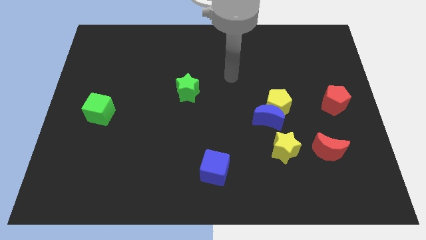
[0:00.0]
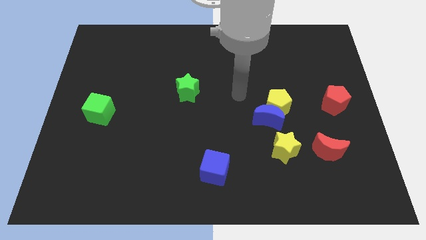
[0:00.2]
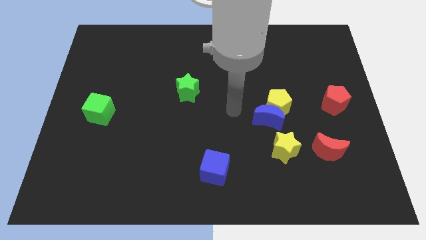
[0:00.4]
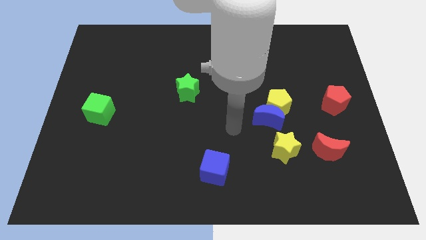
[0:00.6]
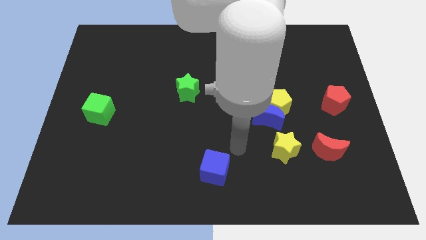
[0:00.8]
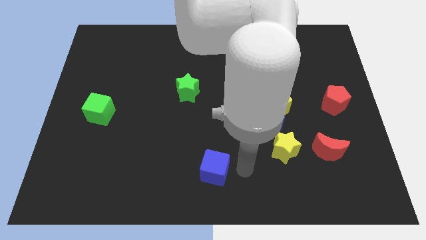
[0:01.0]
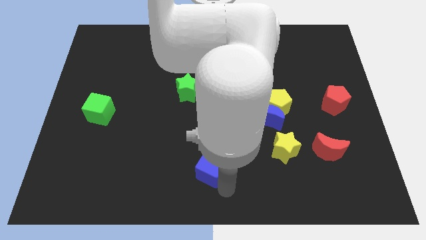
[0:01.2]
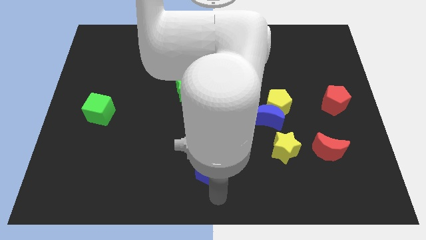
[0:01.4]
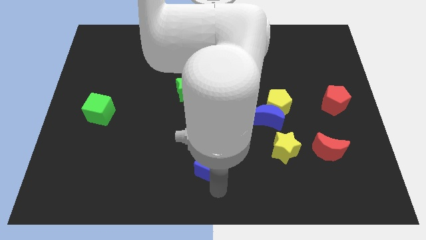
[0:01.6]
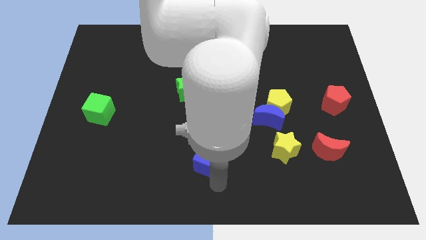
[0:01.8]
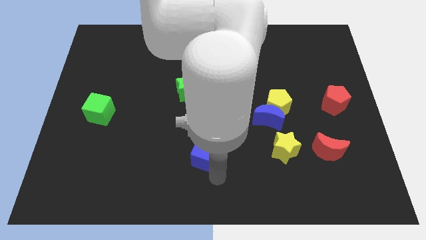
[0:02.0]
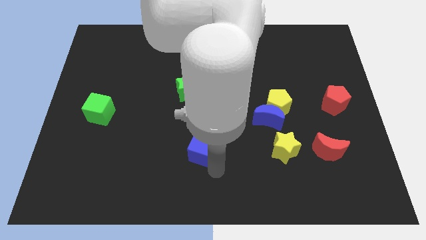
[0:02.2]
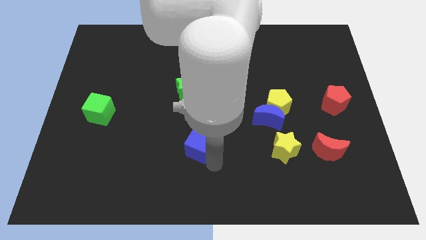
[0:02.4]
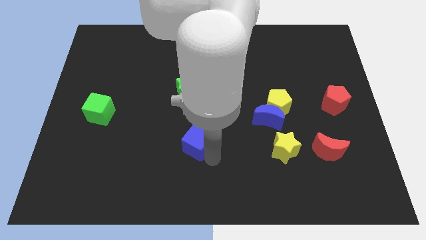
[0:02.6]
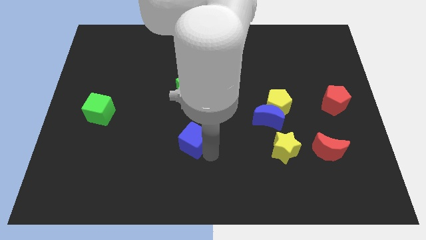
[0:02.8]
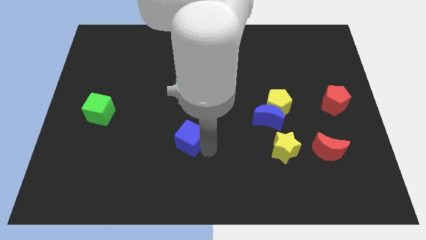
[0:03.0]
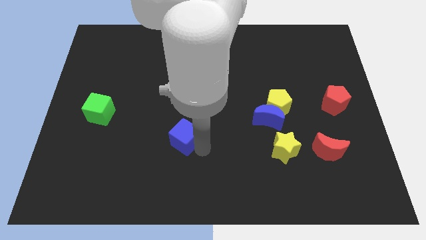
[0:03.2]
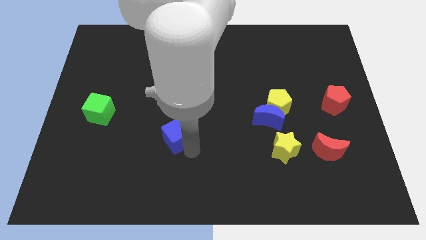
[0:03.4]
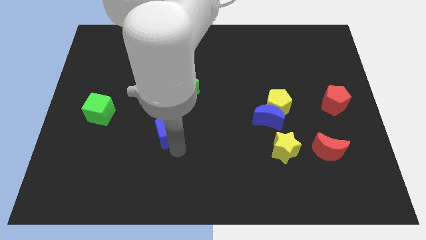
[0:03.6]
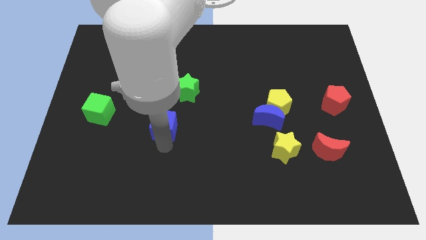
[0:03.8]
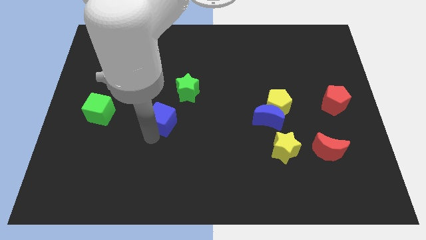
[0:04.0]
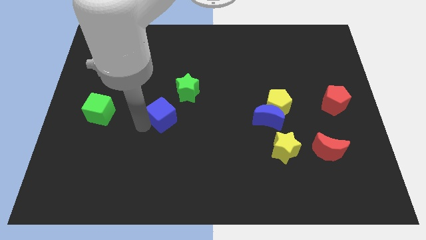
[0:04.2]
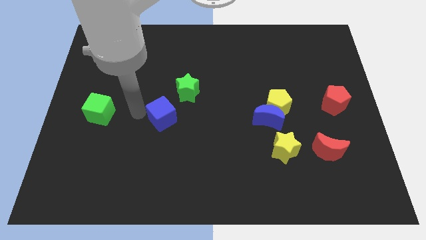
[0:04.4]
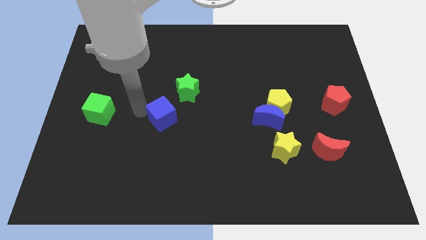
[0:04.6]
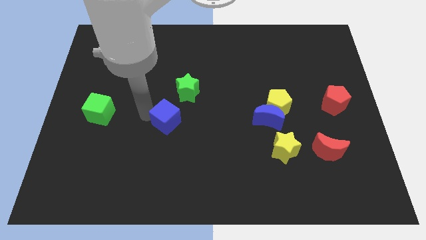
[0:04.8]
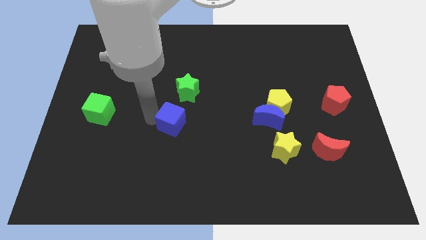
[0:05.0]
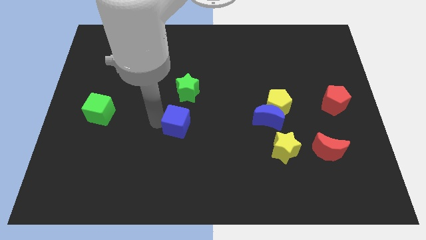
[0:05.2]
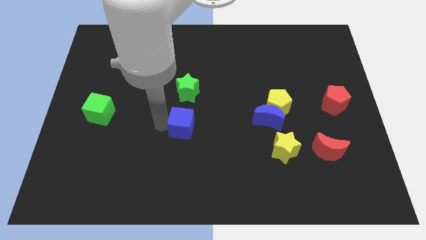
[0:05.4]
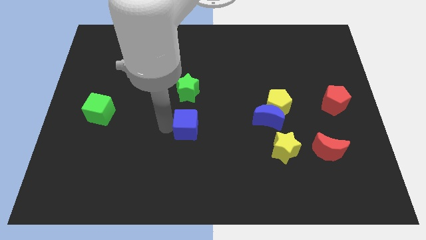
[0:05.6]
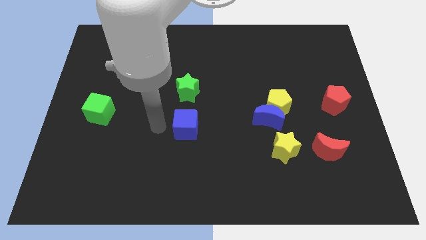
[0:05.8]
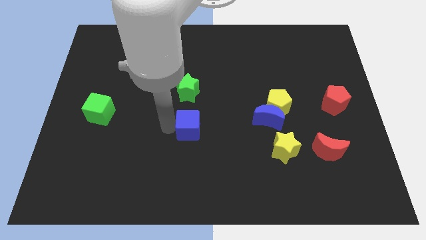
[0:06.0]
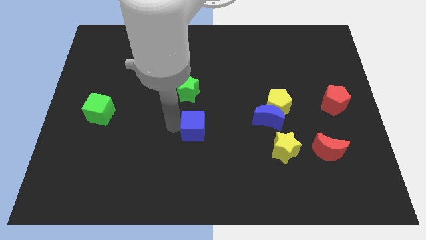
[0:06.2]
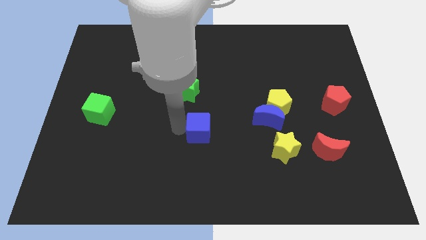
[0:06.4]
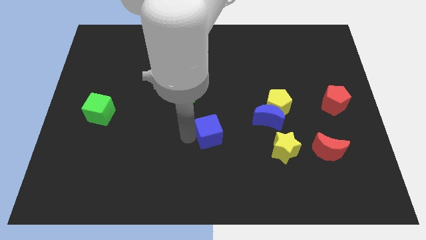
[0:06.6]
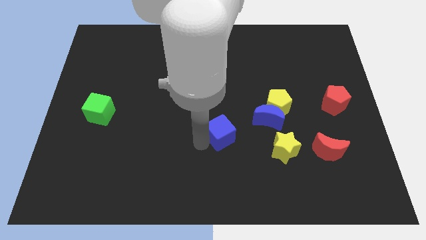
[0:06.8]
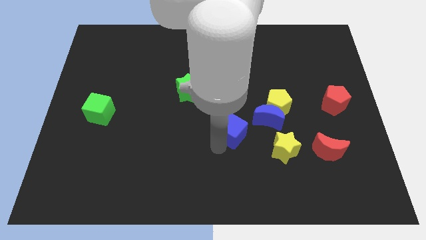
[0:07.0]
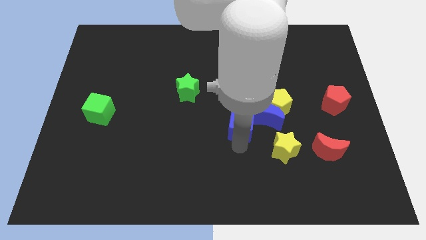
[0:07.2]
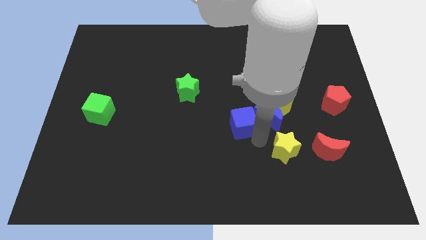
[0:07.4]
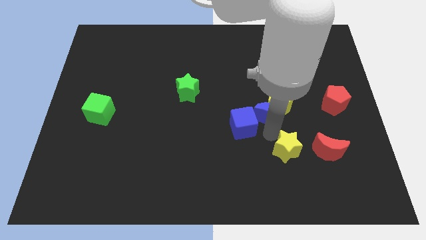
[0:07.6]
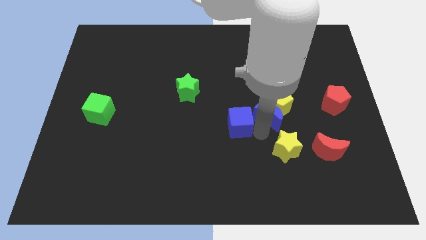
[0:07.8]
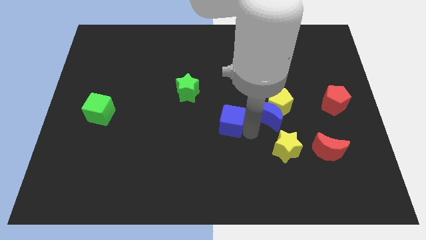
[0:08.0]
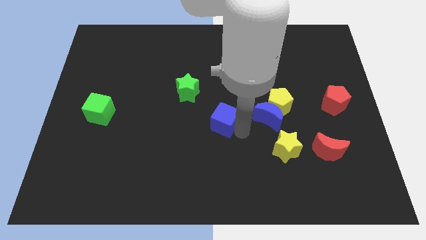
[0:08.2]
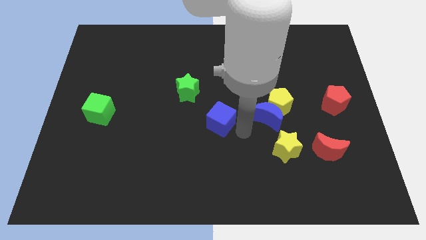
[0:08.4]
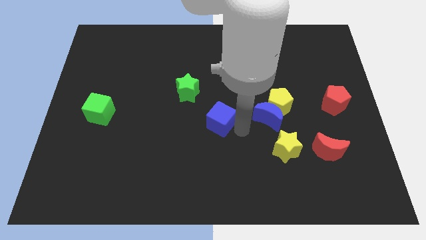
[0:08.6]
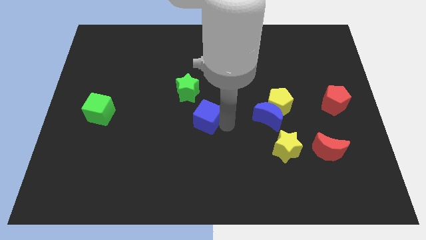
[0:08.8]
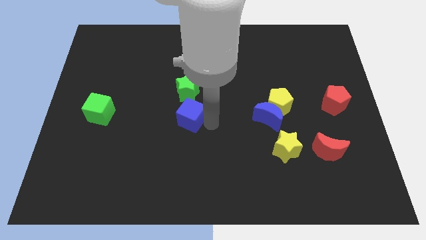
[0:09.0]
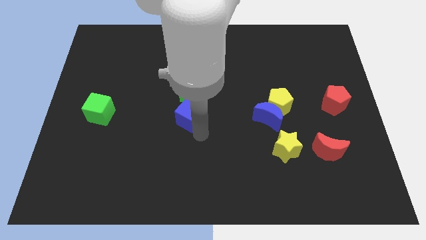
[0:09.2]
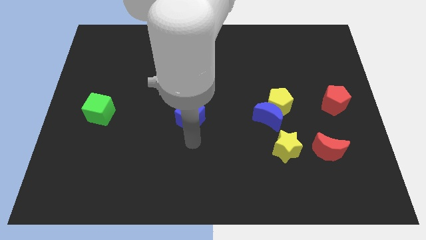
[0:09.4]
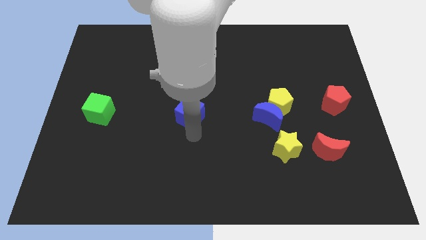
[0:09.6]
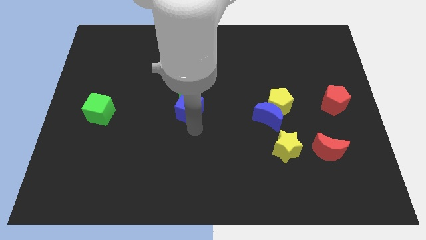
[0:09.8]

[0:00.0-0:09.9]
push the blue cube towards the green star

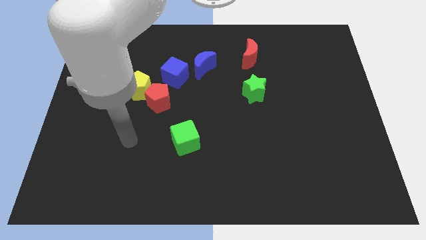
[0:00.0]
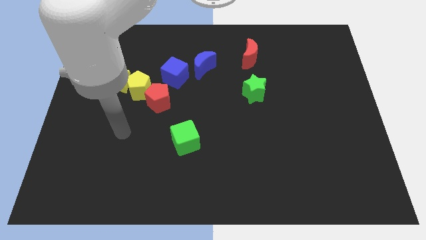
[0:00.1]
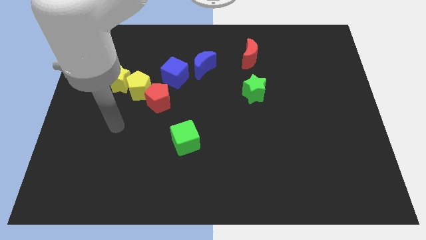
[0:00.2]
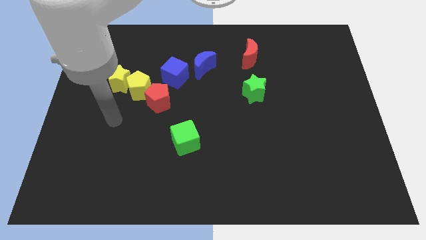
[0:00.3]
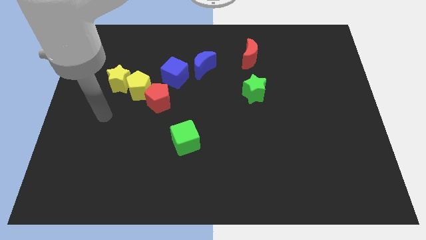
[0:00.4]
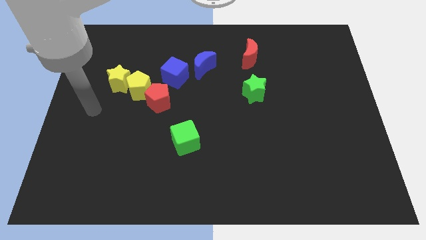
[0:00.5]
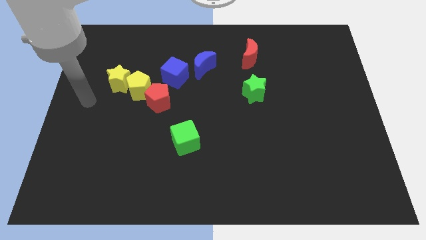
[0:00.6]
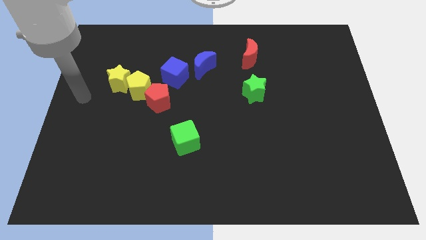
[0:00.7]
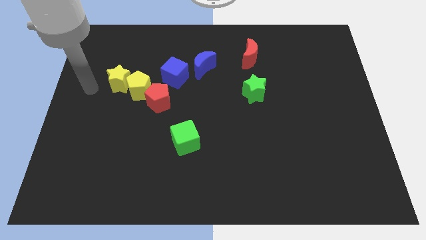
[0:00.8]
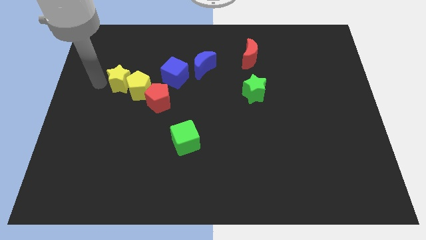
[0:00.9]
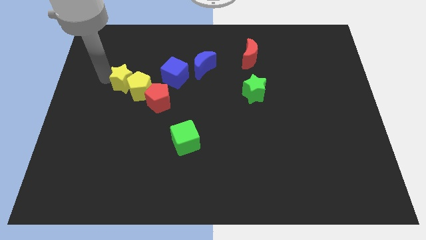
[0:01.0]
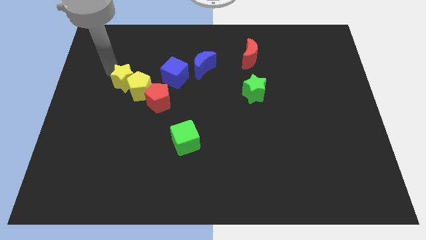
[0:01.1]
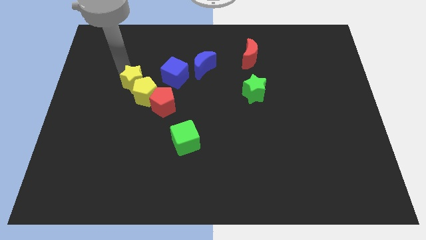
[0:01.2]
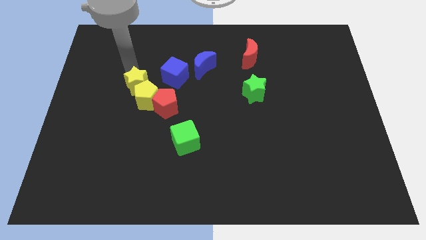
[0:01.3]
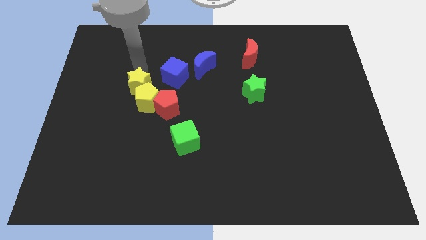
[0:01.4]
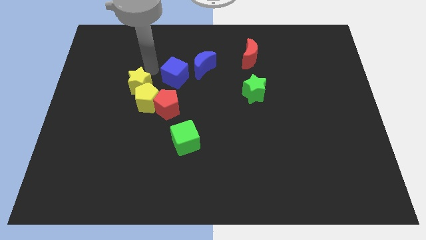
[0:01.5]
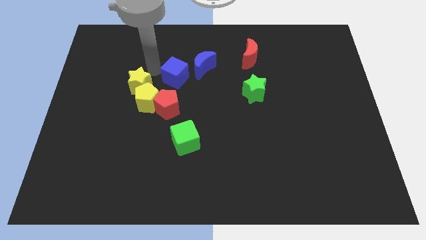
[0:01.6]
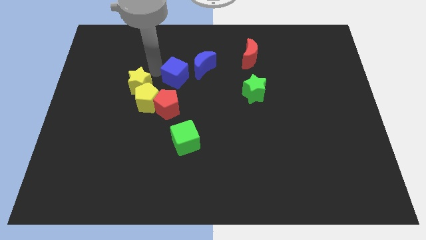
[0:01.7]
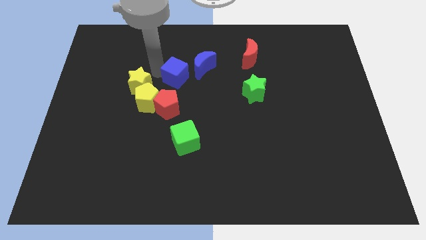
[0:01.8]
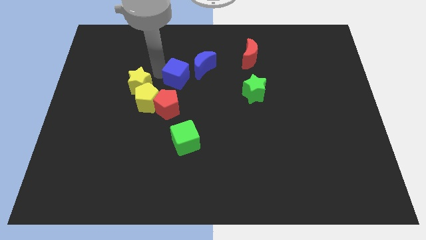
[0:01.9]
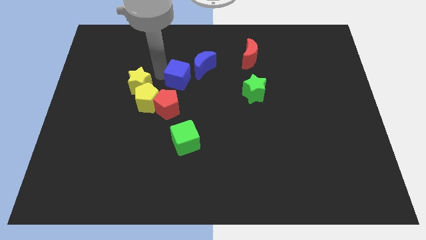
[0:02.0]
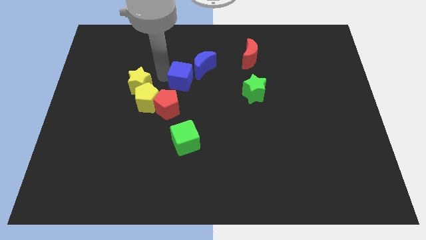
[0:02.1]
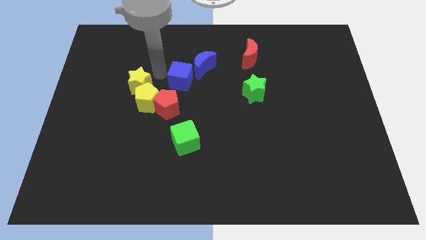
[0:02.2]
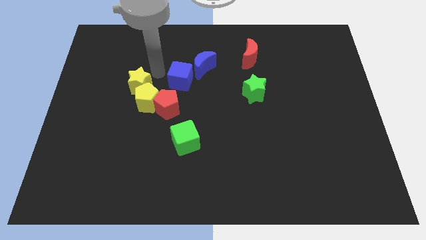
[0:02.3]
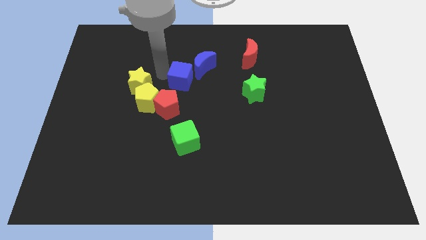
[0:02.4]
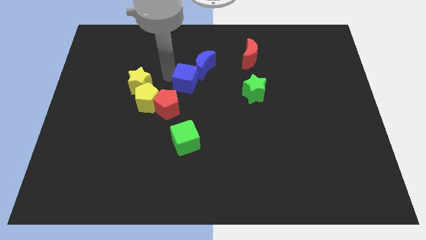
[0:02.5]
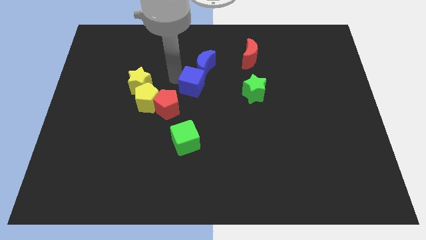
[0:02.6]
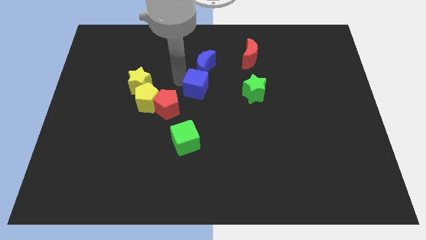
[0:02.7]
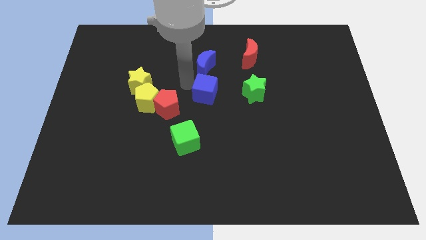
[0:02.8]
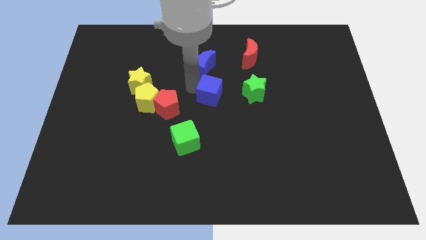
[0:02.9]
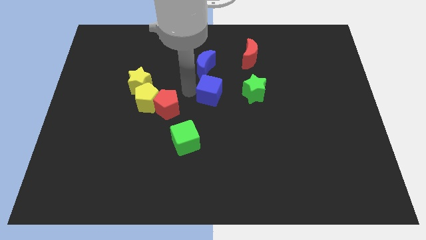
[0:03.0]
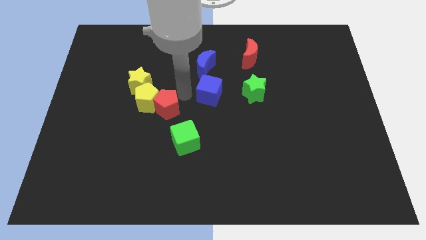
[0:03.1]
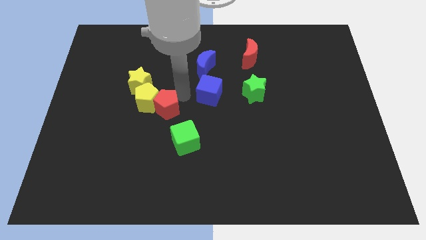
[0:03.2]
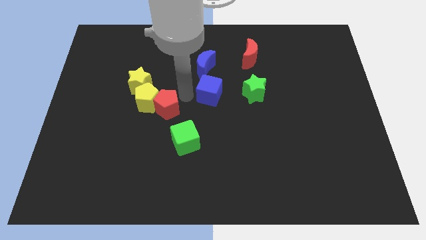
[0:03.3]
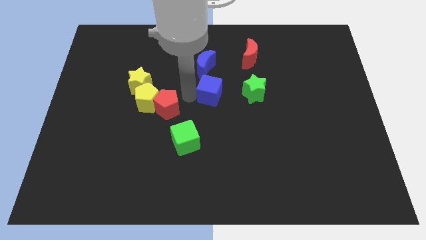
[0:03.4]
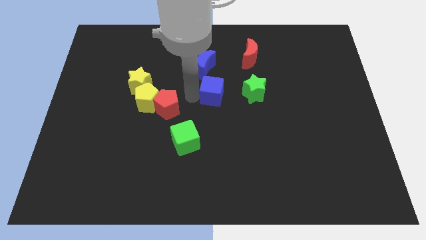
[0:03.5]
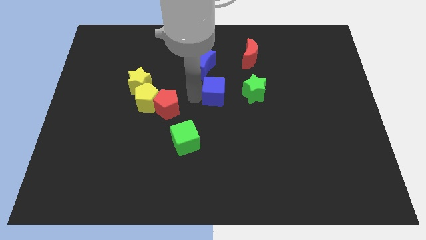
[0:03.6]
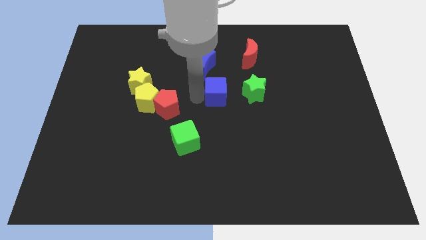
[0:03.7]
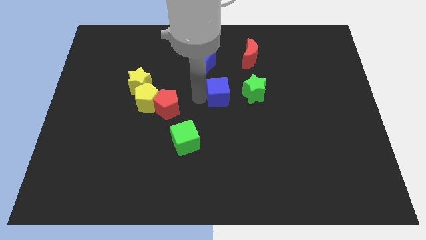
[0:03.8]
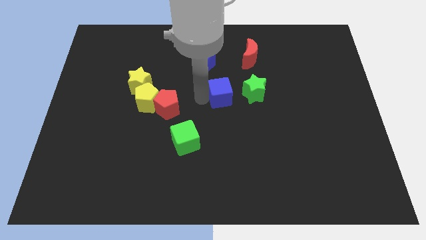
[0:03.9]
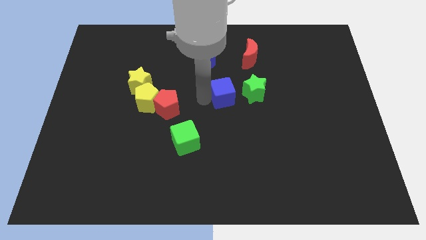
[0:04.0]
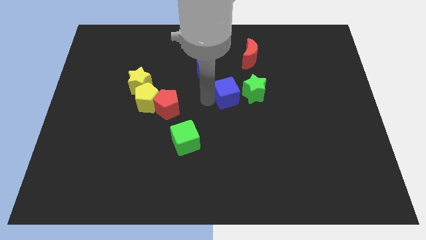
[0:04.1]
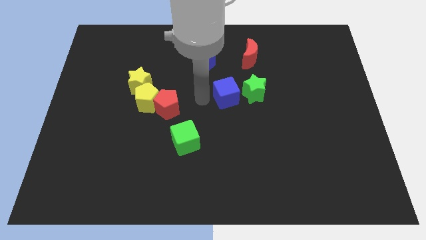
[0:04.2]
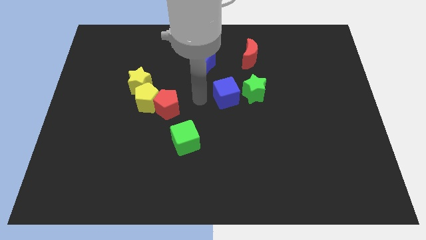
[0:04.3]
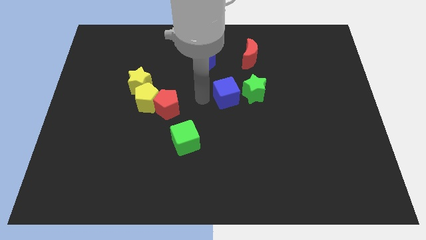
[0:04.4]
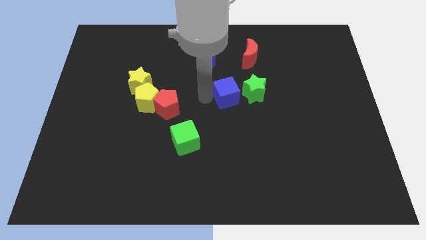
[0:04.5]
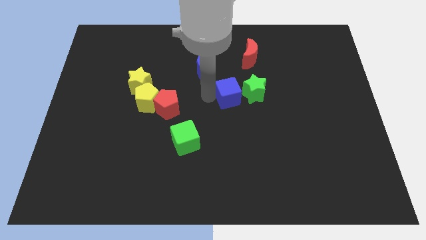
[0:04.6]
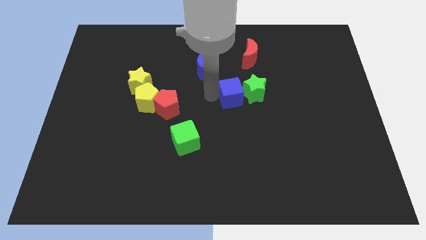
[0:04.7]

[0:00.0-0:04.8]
put the blue cube next to the green star
